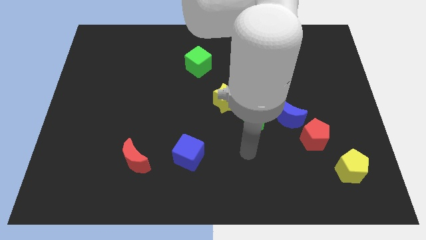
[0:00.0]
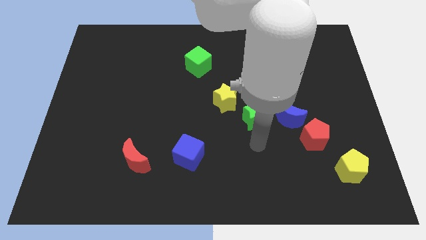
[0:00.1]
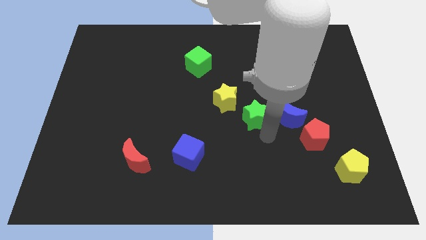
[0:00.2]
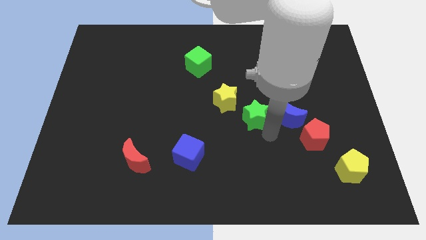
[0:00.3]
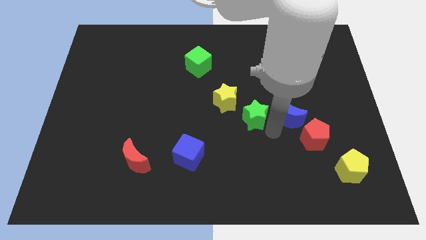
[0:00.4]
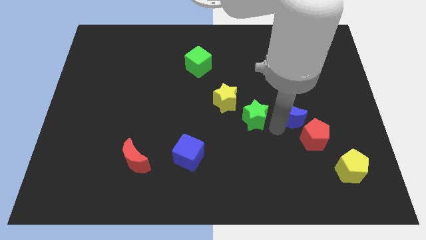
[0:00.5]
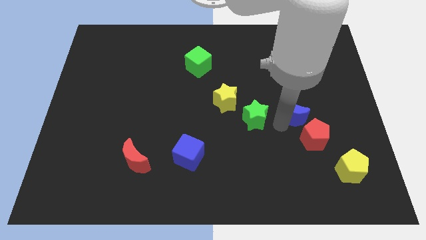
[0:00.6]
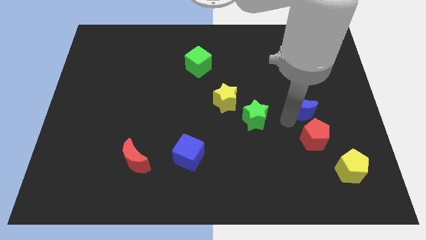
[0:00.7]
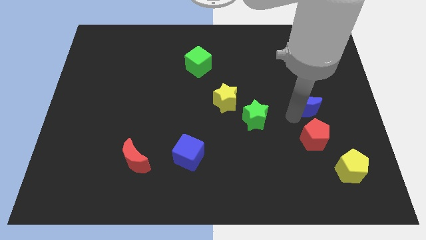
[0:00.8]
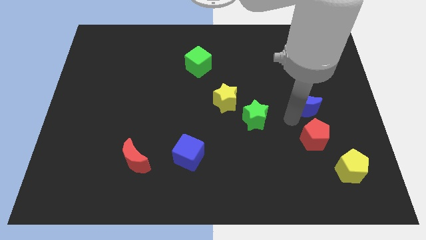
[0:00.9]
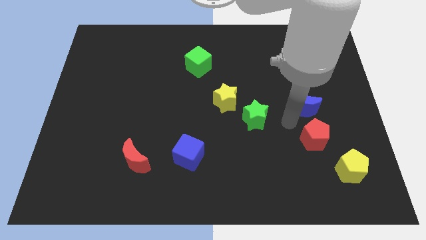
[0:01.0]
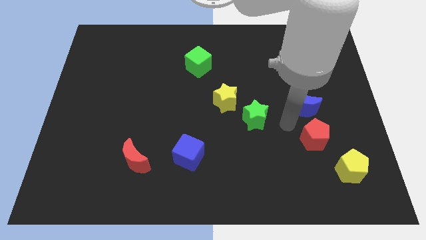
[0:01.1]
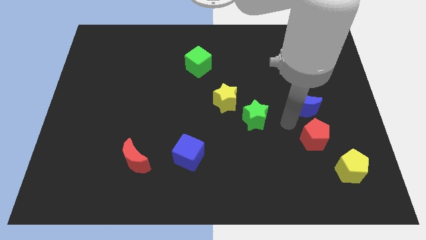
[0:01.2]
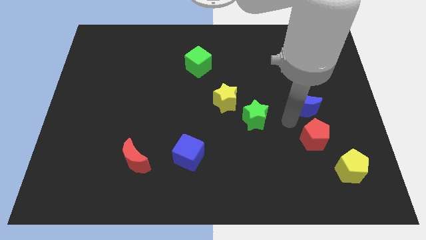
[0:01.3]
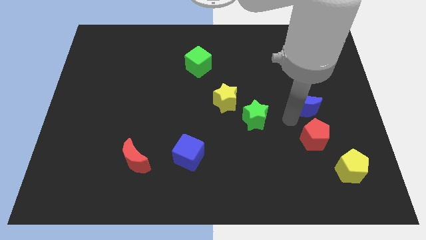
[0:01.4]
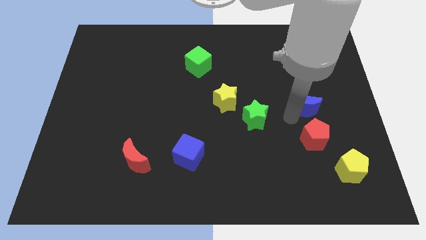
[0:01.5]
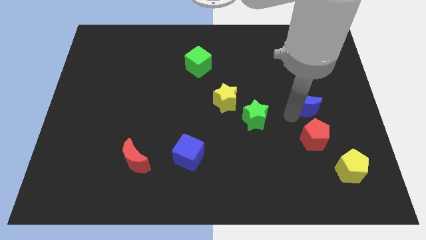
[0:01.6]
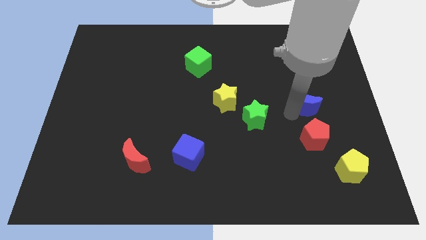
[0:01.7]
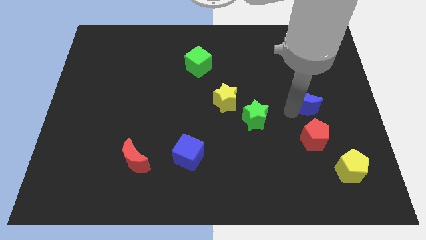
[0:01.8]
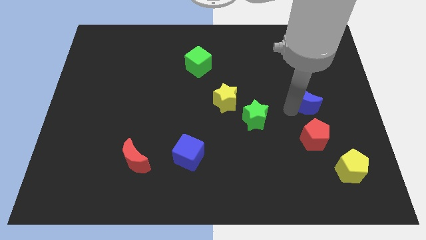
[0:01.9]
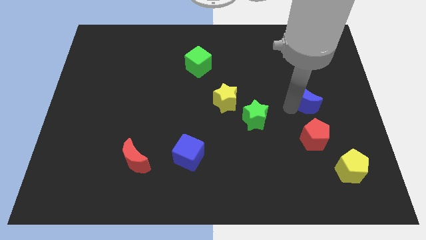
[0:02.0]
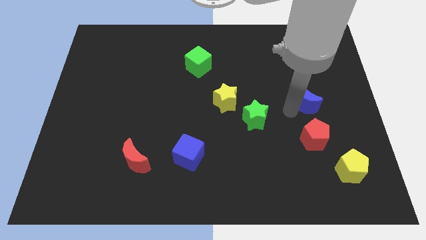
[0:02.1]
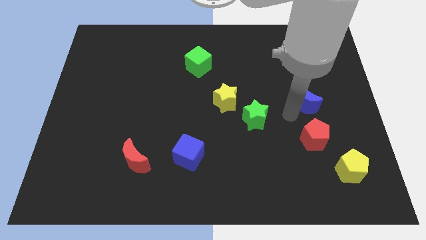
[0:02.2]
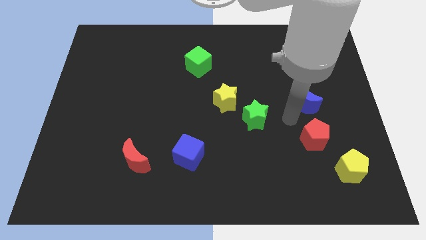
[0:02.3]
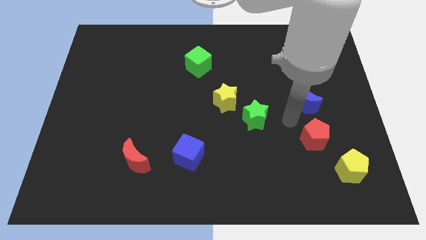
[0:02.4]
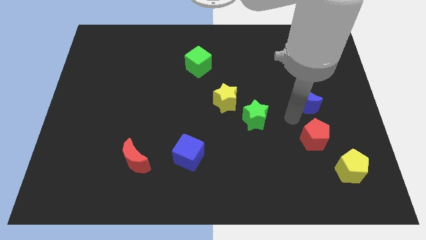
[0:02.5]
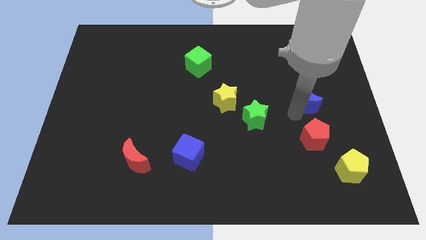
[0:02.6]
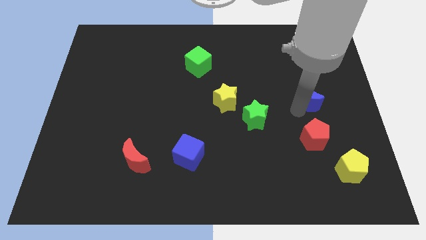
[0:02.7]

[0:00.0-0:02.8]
separate the blue moon from the red pentagon and green star

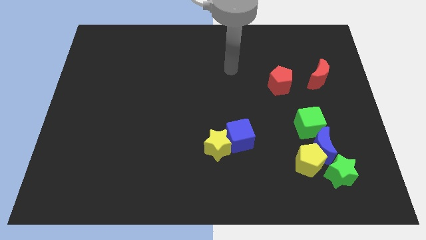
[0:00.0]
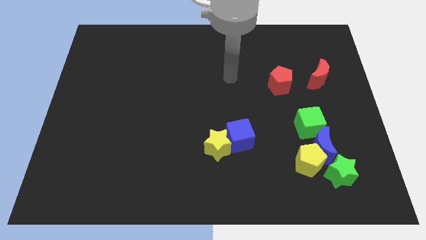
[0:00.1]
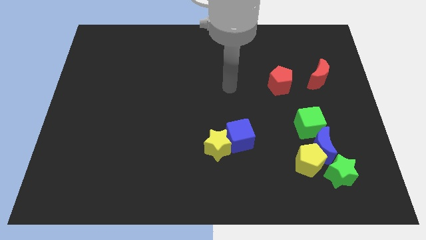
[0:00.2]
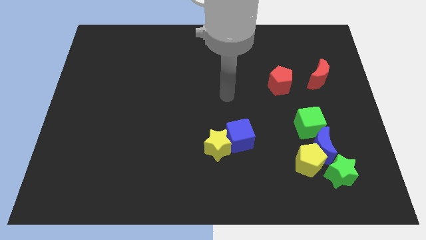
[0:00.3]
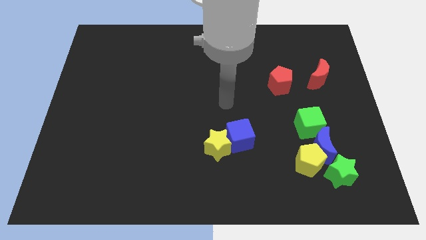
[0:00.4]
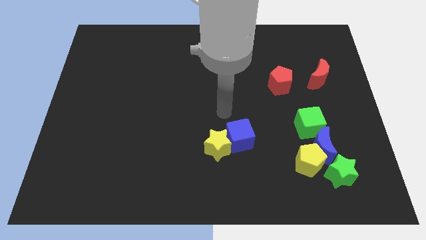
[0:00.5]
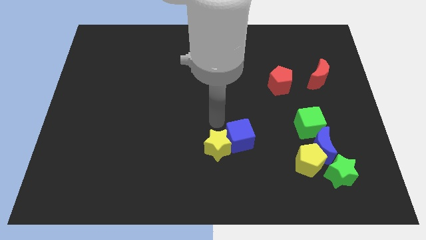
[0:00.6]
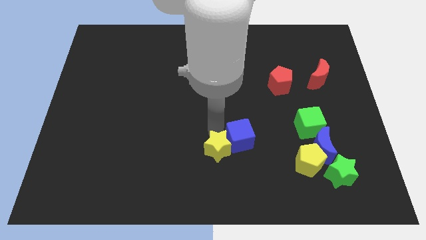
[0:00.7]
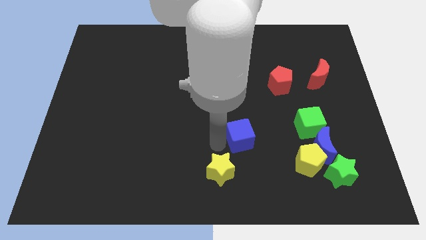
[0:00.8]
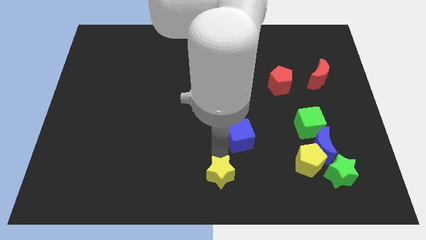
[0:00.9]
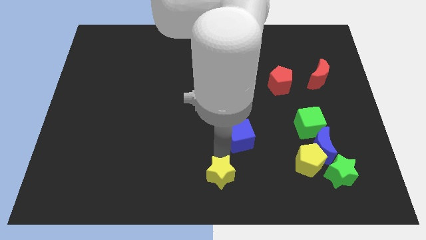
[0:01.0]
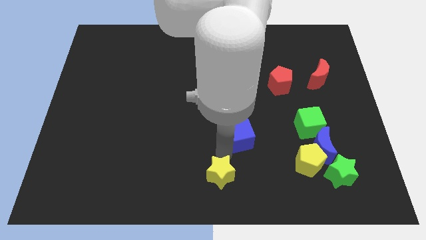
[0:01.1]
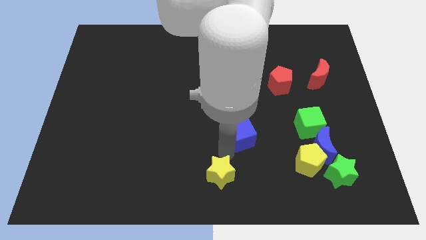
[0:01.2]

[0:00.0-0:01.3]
move the blue cube away from the yellow star

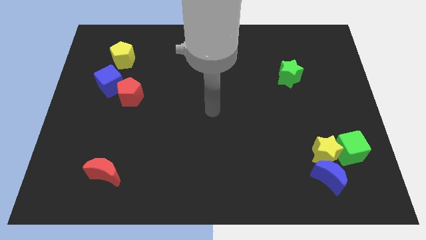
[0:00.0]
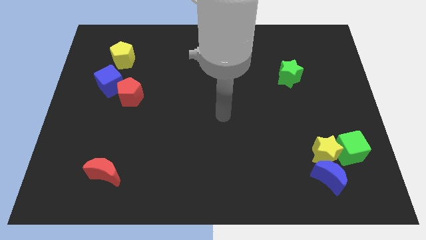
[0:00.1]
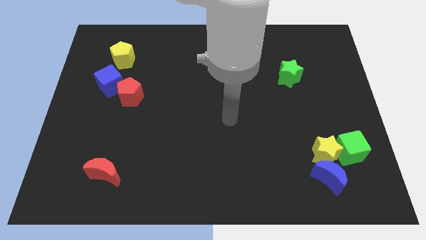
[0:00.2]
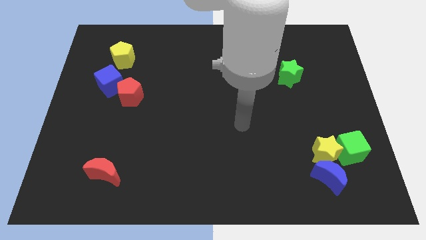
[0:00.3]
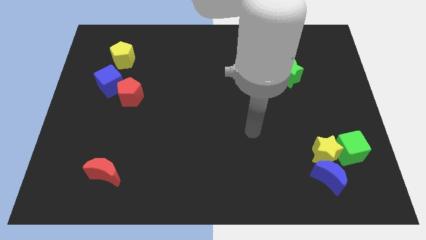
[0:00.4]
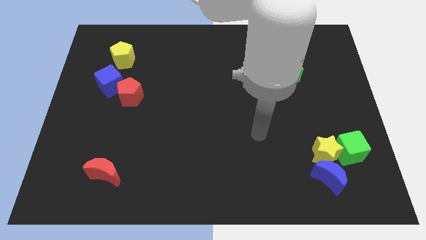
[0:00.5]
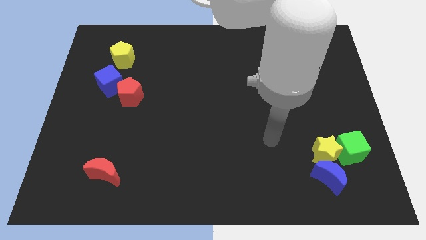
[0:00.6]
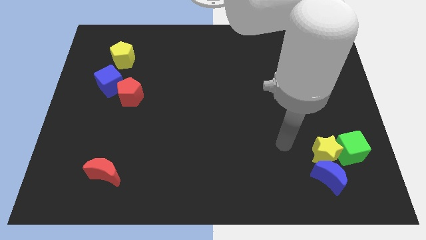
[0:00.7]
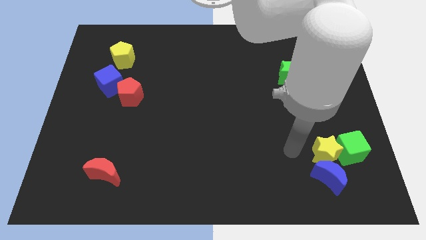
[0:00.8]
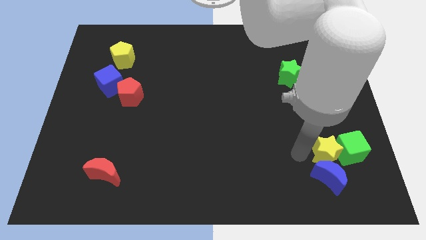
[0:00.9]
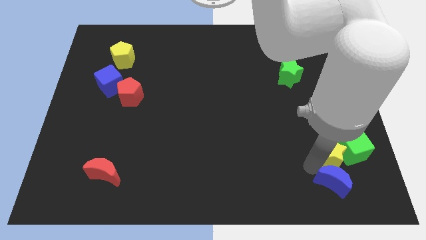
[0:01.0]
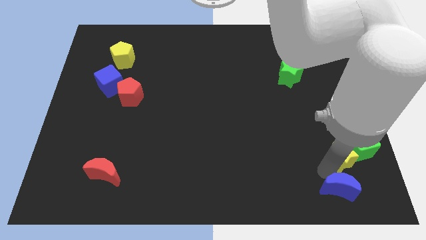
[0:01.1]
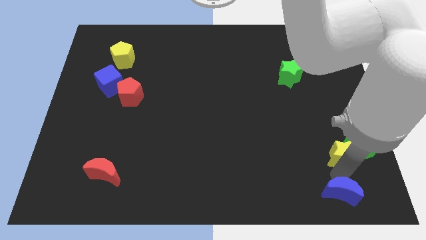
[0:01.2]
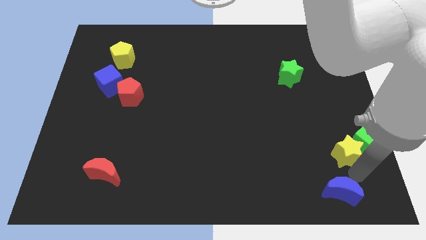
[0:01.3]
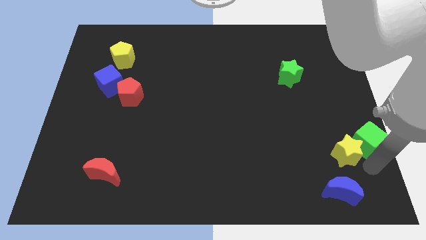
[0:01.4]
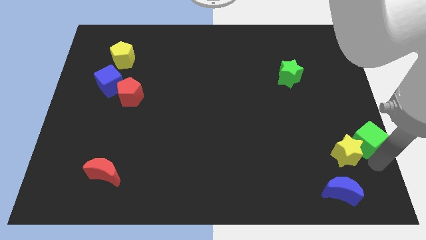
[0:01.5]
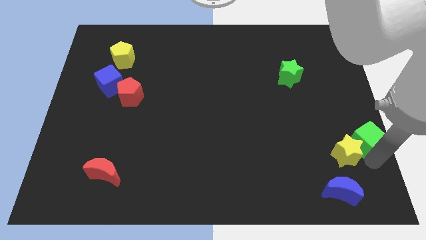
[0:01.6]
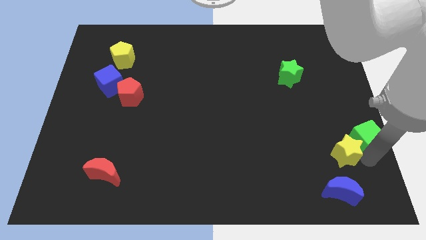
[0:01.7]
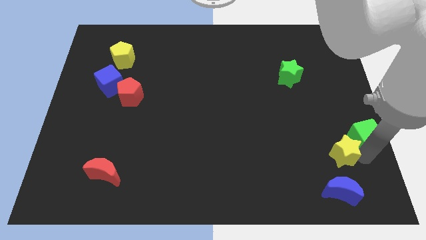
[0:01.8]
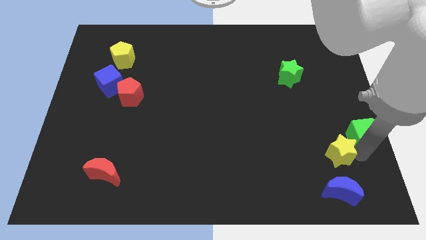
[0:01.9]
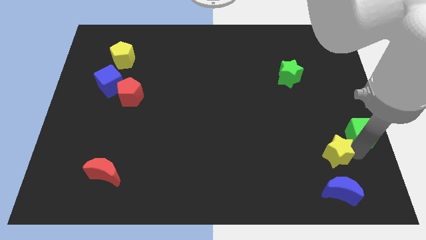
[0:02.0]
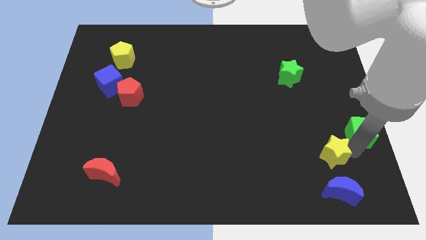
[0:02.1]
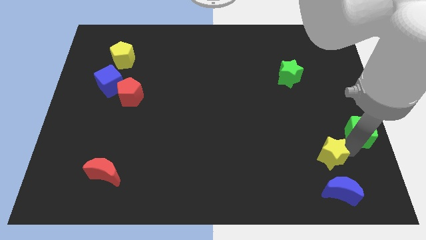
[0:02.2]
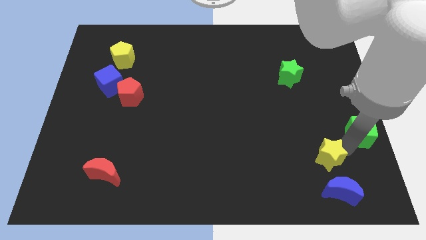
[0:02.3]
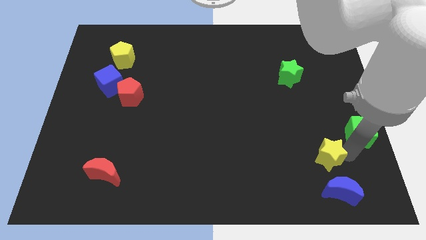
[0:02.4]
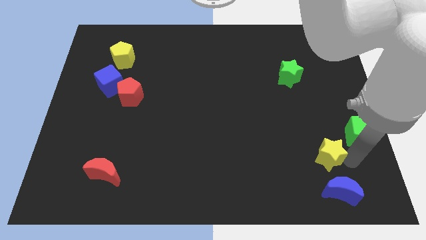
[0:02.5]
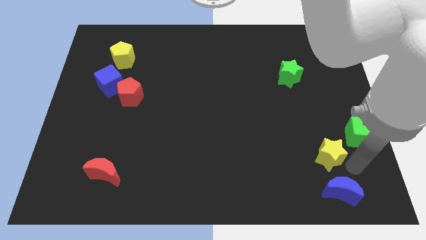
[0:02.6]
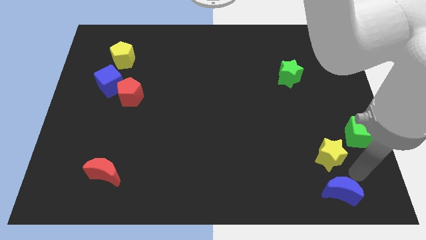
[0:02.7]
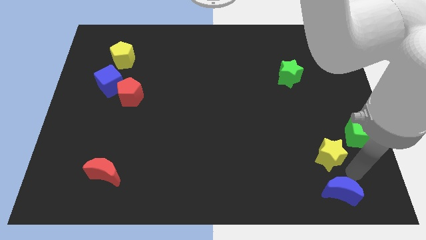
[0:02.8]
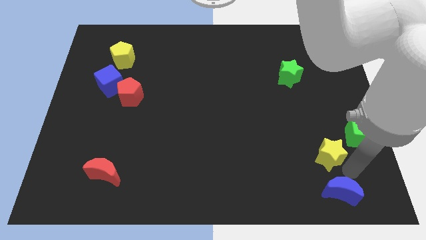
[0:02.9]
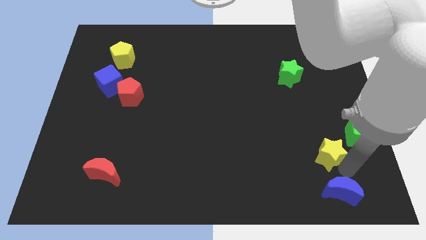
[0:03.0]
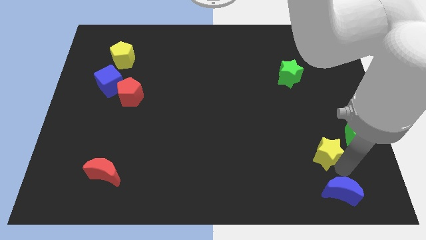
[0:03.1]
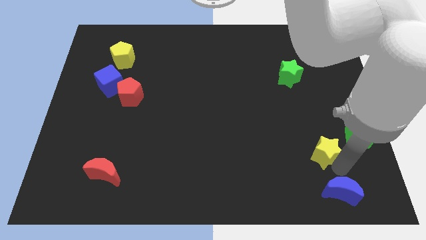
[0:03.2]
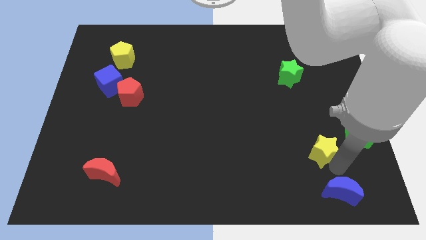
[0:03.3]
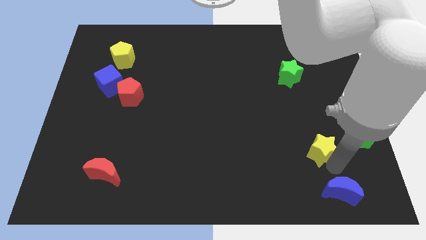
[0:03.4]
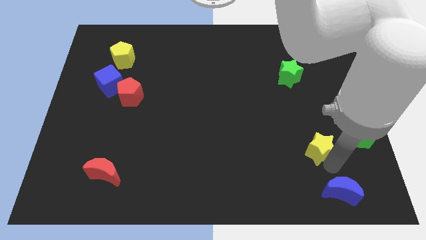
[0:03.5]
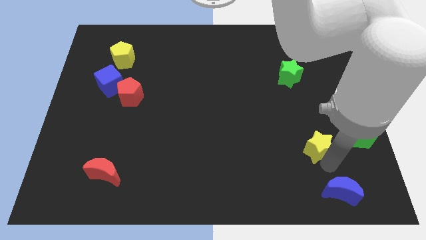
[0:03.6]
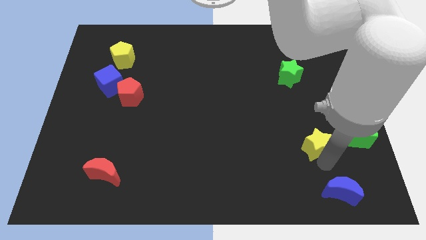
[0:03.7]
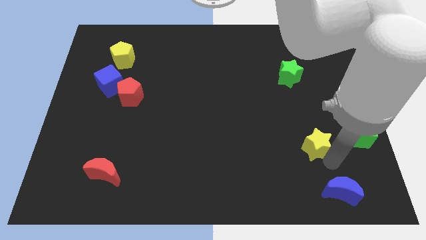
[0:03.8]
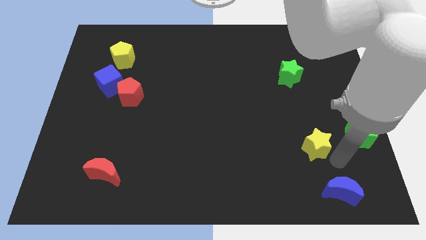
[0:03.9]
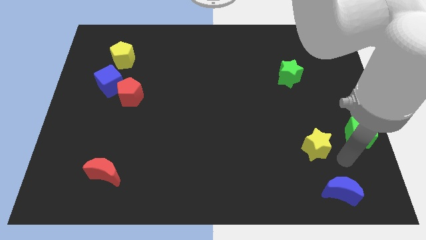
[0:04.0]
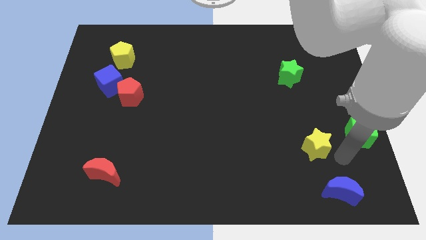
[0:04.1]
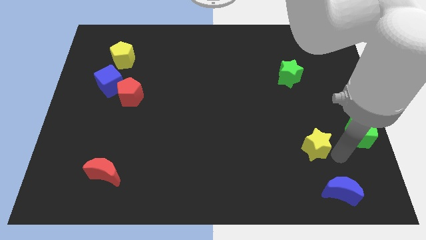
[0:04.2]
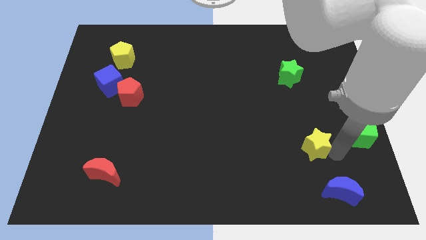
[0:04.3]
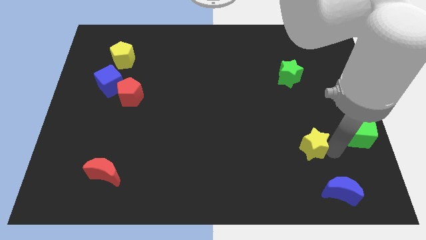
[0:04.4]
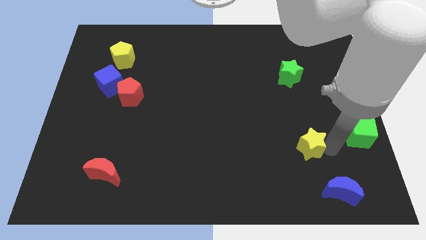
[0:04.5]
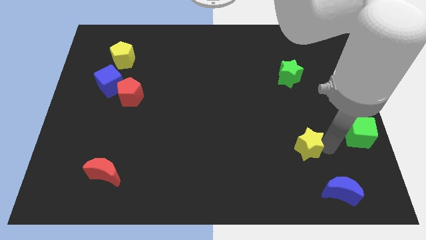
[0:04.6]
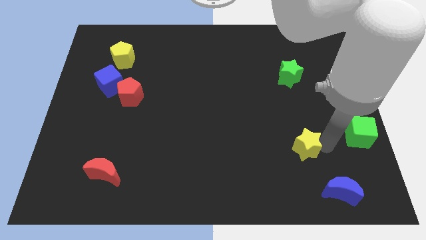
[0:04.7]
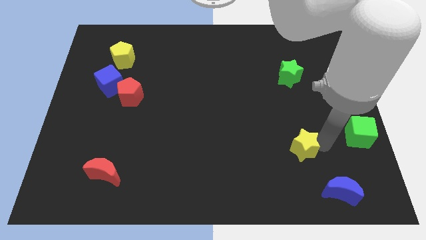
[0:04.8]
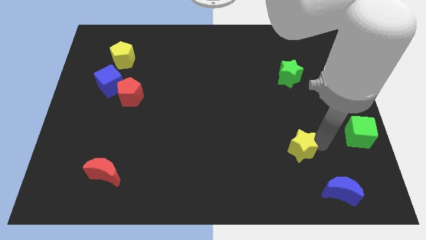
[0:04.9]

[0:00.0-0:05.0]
pull the yellow star apart from the blue moon and green cube

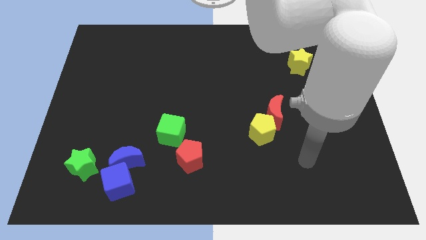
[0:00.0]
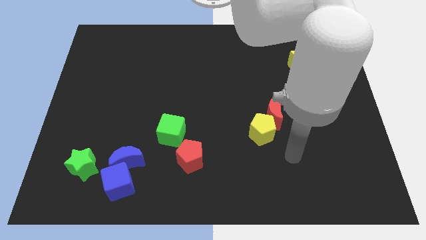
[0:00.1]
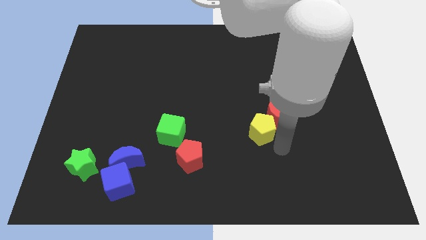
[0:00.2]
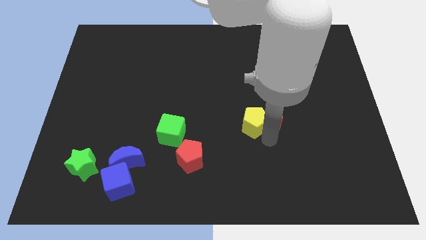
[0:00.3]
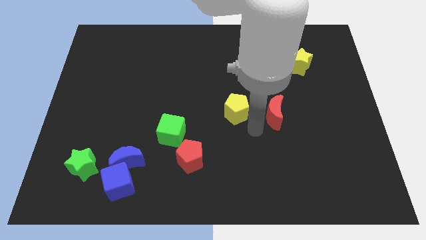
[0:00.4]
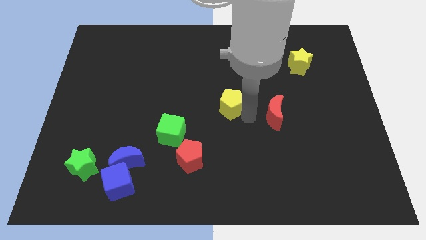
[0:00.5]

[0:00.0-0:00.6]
move the red moon away from the yellow pentagon
